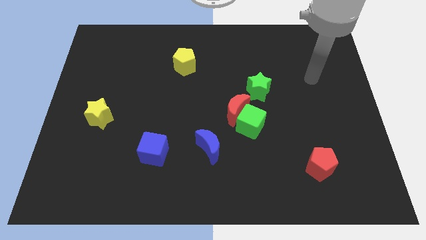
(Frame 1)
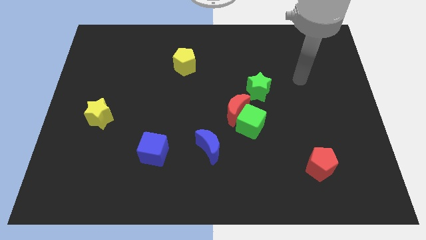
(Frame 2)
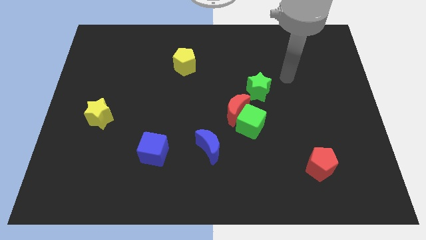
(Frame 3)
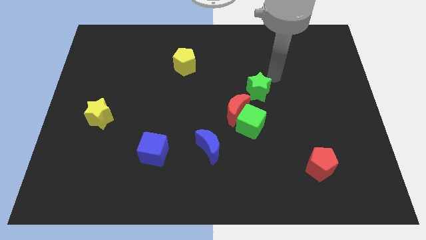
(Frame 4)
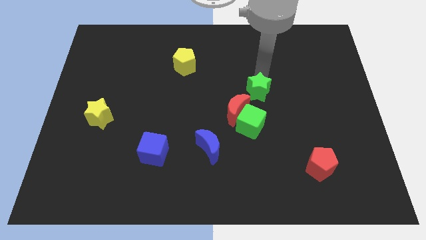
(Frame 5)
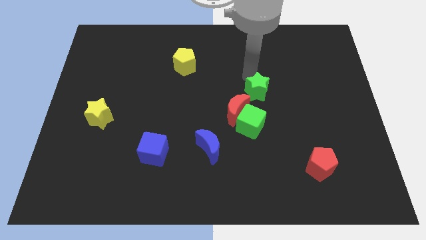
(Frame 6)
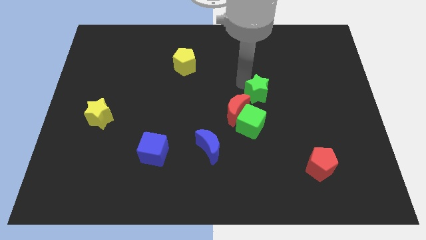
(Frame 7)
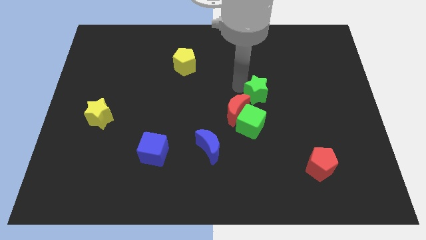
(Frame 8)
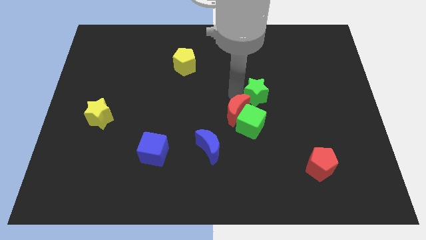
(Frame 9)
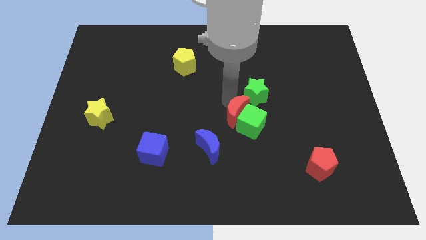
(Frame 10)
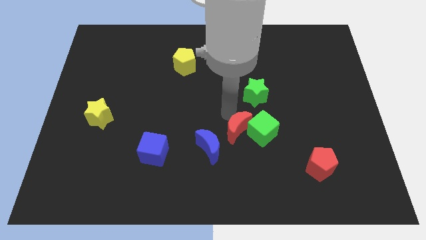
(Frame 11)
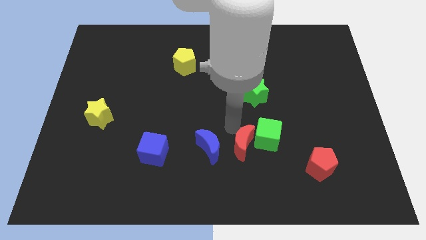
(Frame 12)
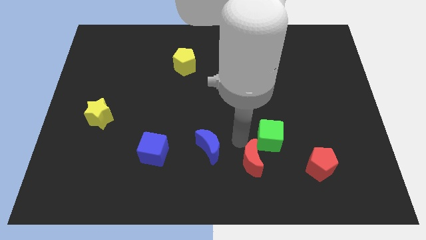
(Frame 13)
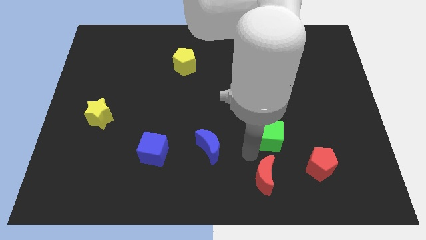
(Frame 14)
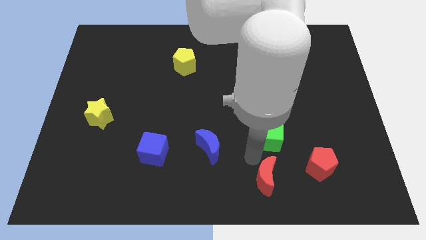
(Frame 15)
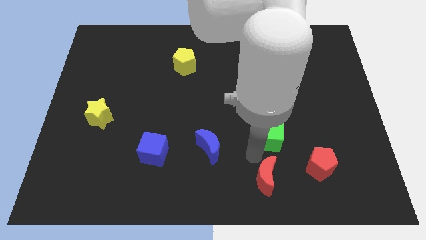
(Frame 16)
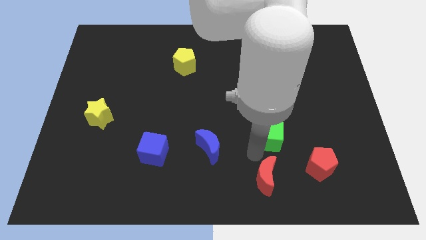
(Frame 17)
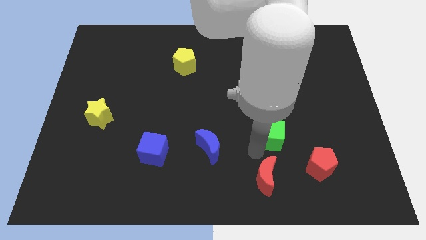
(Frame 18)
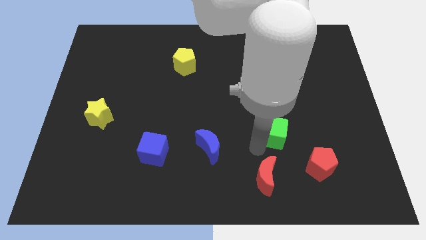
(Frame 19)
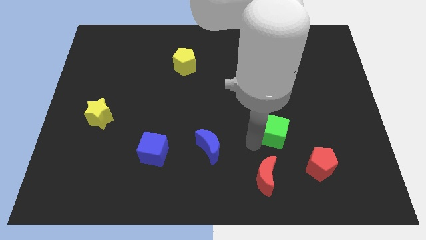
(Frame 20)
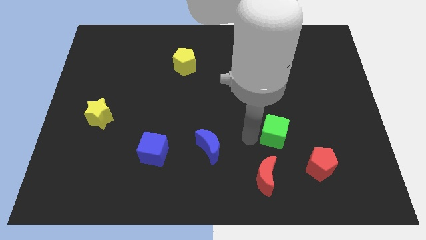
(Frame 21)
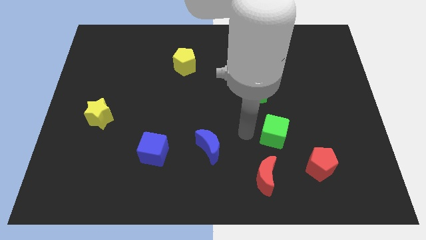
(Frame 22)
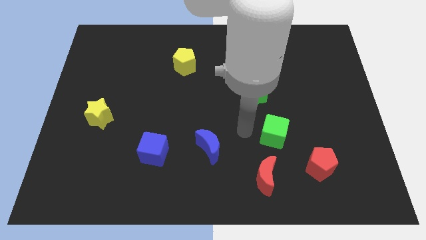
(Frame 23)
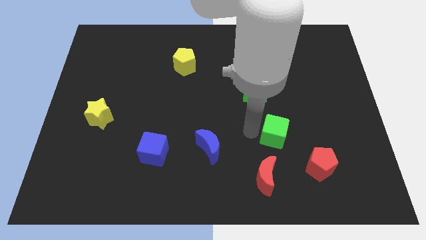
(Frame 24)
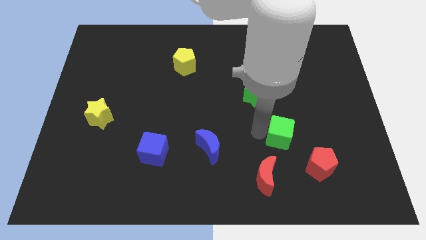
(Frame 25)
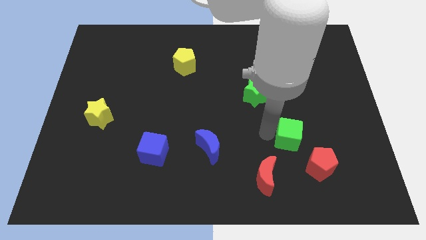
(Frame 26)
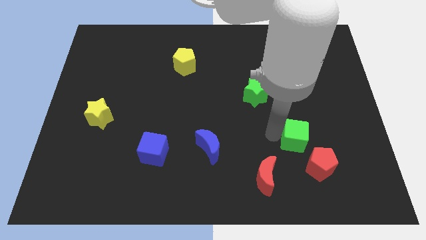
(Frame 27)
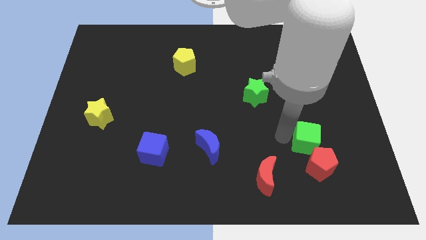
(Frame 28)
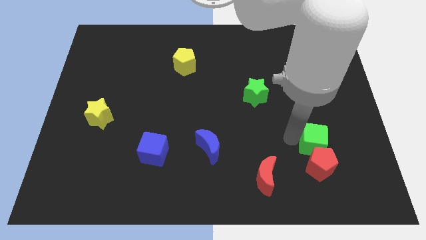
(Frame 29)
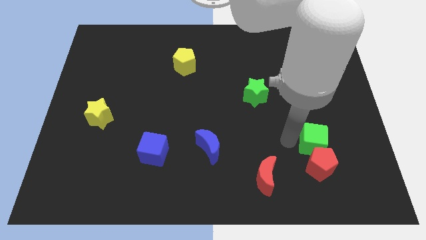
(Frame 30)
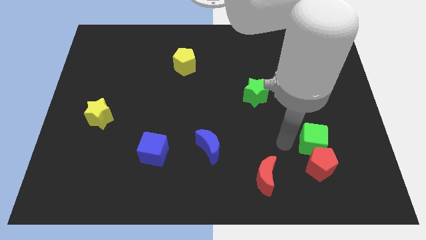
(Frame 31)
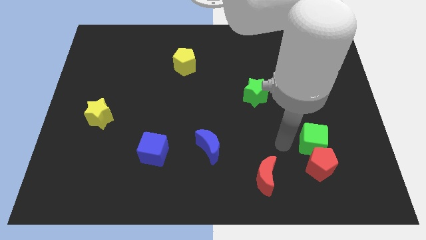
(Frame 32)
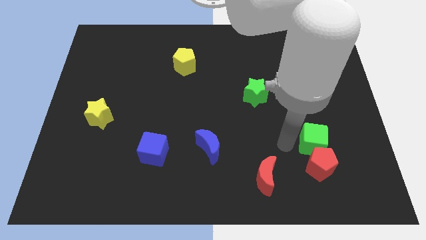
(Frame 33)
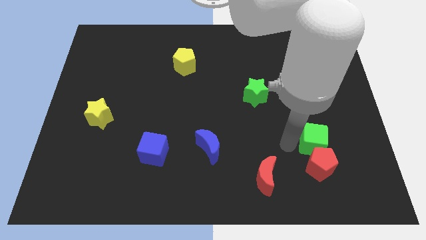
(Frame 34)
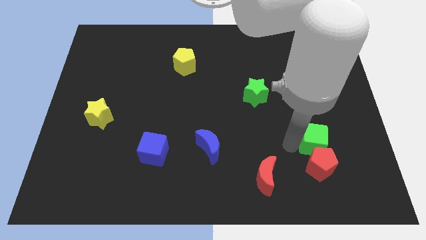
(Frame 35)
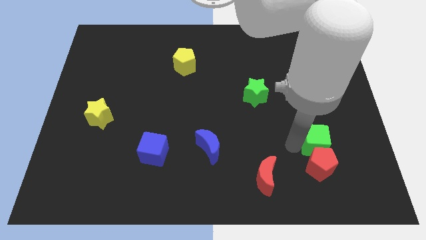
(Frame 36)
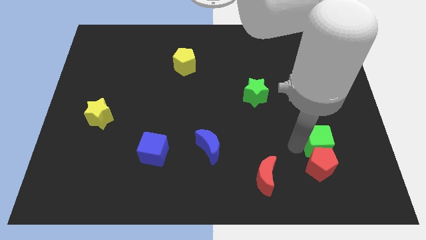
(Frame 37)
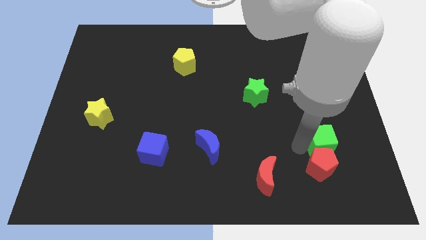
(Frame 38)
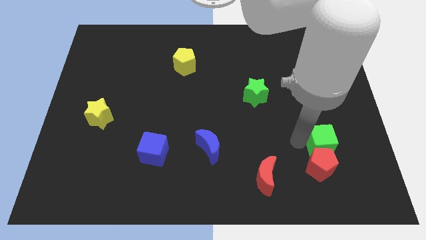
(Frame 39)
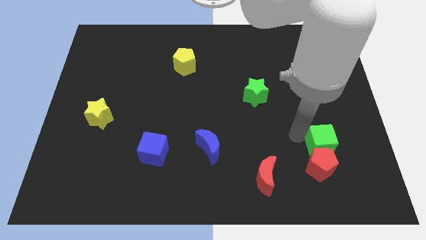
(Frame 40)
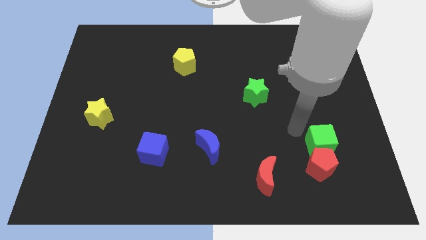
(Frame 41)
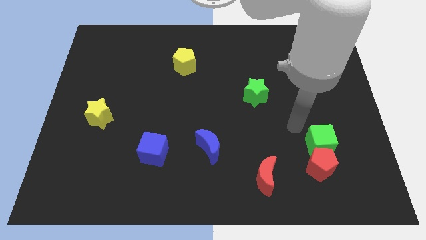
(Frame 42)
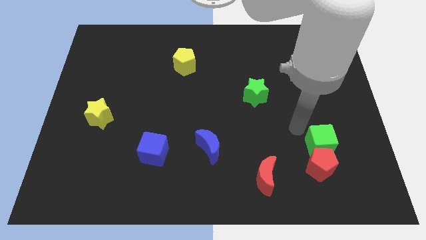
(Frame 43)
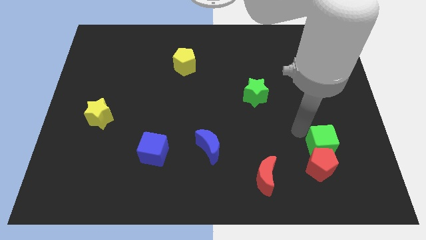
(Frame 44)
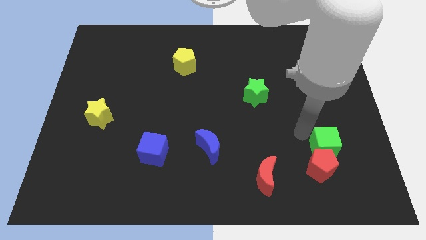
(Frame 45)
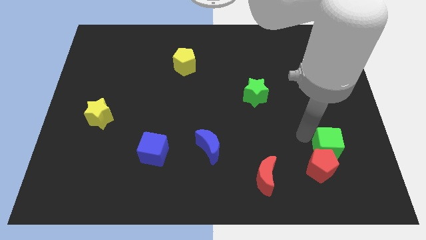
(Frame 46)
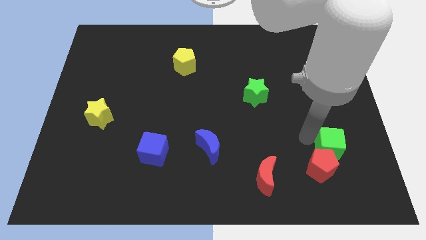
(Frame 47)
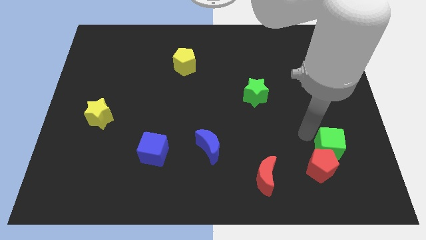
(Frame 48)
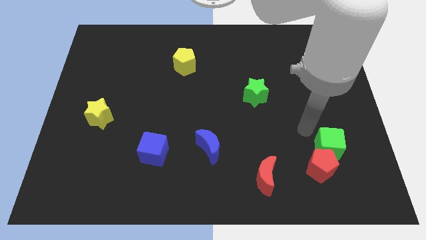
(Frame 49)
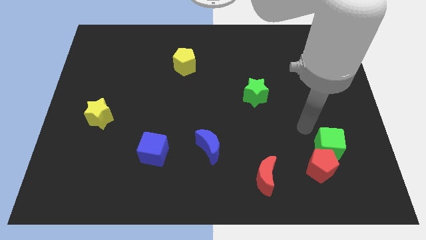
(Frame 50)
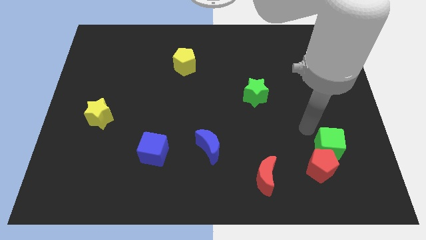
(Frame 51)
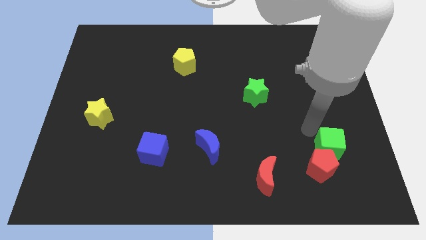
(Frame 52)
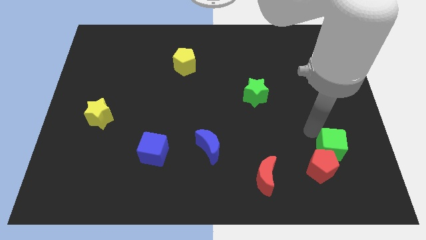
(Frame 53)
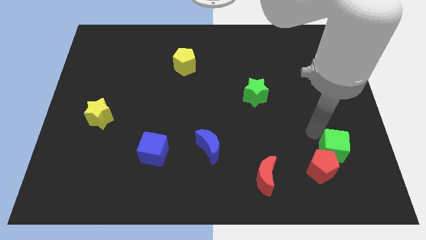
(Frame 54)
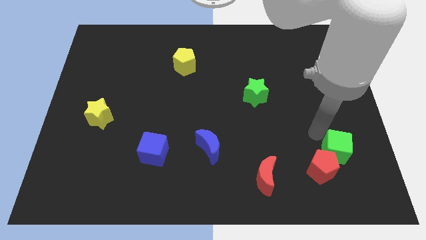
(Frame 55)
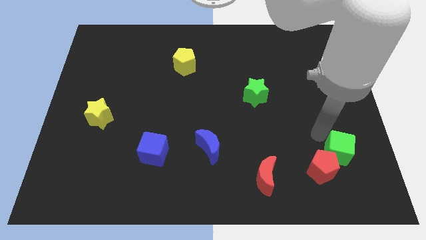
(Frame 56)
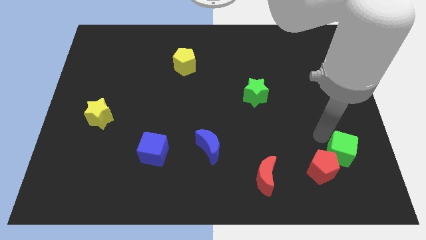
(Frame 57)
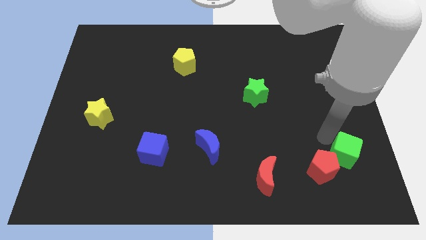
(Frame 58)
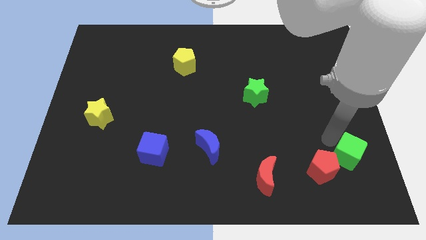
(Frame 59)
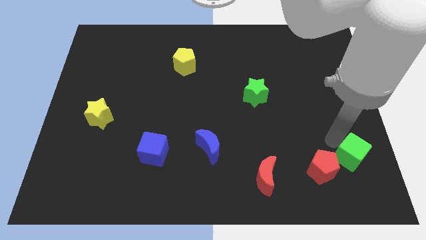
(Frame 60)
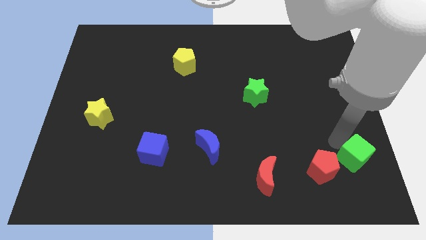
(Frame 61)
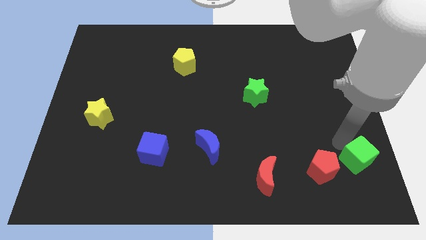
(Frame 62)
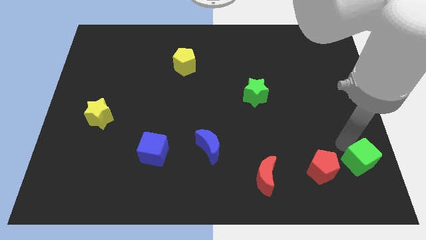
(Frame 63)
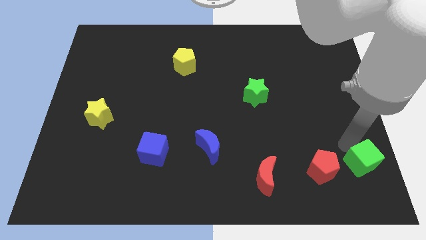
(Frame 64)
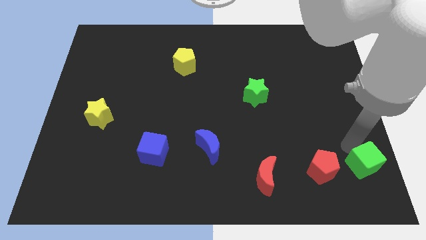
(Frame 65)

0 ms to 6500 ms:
slide the green cube to the bottom right corner

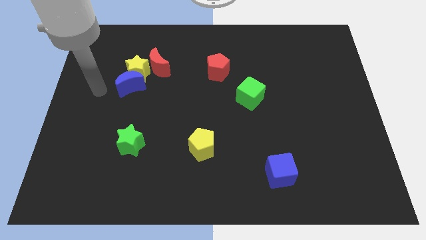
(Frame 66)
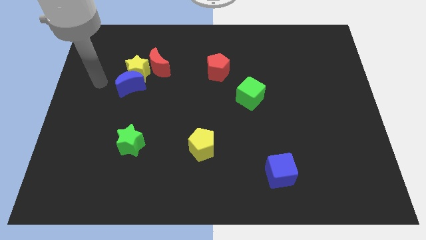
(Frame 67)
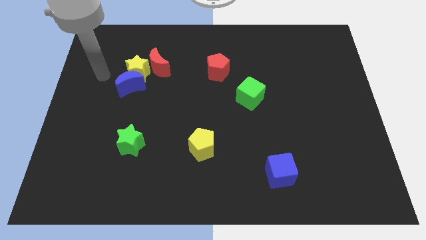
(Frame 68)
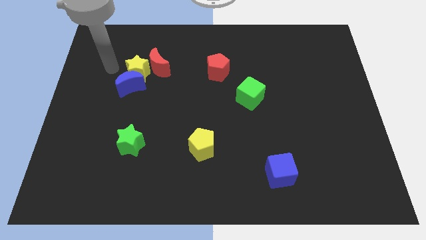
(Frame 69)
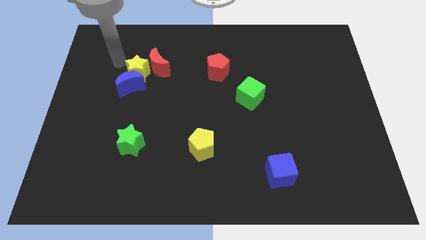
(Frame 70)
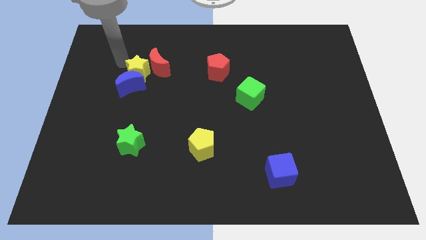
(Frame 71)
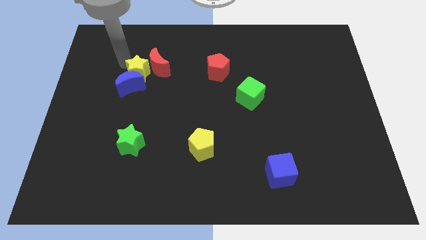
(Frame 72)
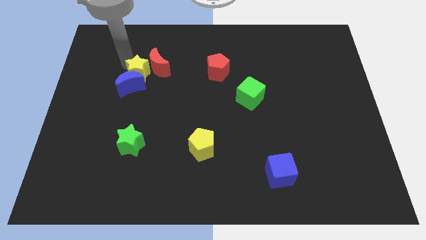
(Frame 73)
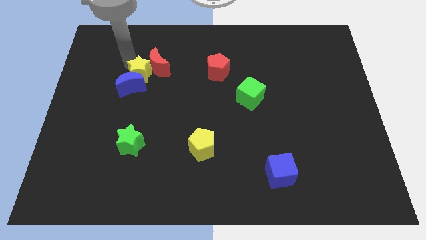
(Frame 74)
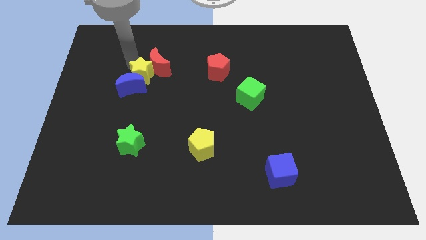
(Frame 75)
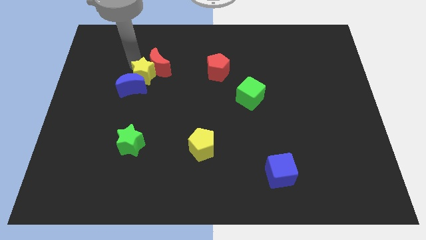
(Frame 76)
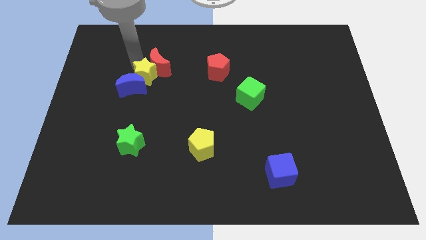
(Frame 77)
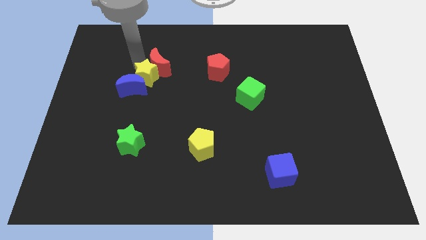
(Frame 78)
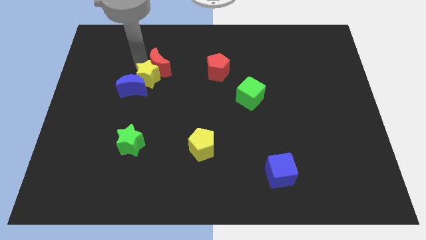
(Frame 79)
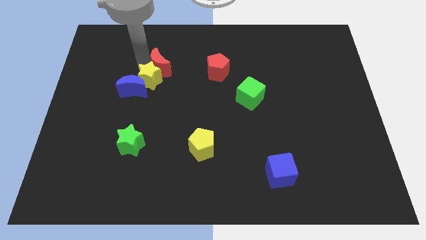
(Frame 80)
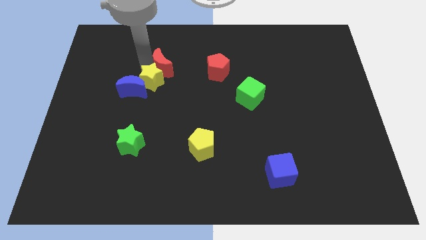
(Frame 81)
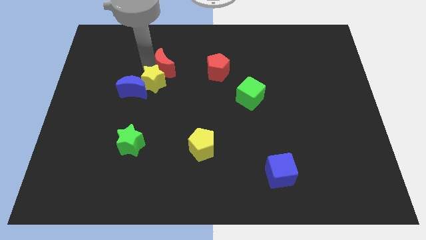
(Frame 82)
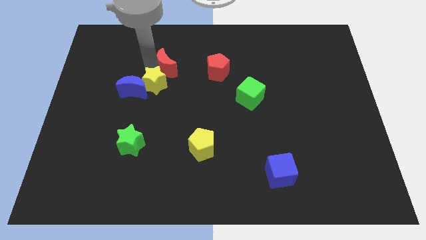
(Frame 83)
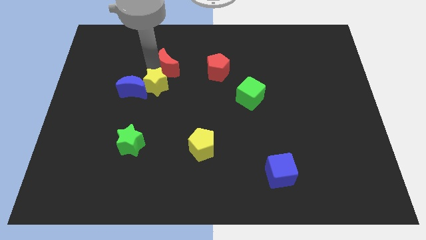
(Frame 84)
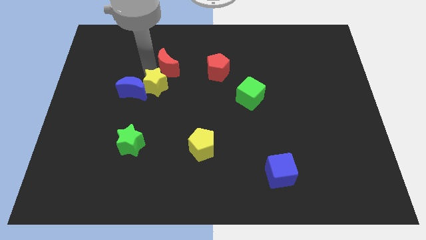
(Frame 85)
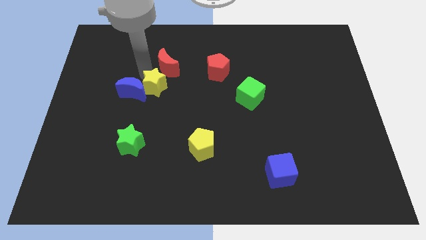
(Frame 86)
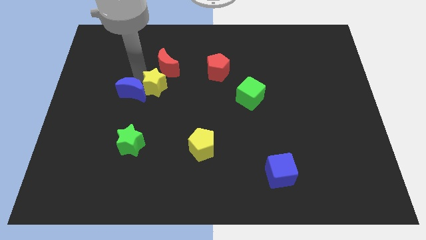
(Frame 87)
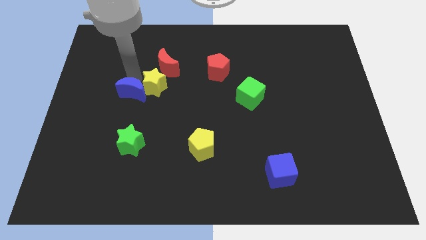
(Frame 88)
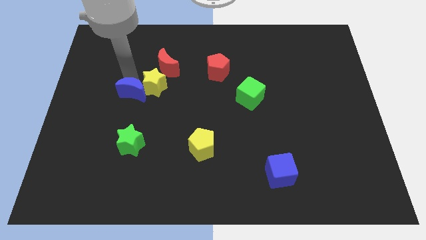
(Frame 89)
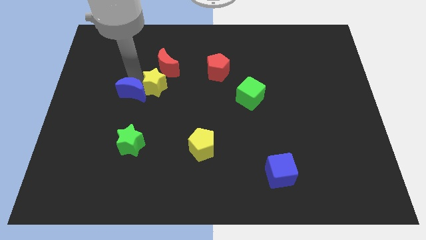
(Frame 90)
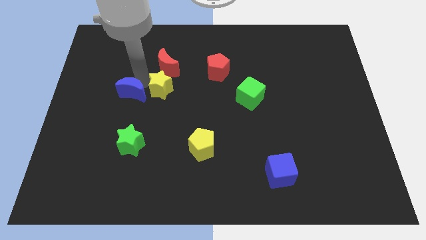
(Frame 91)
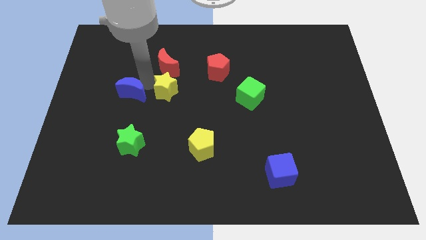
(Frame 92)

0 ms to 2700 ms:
push the yellow star to the center of the board
